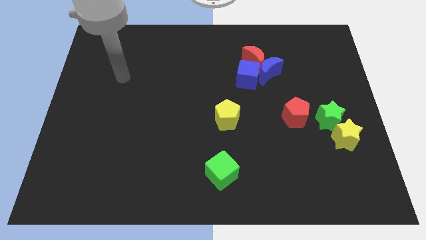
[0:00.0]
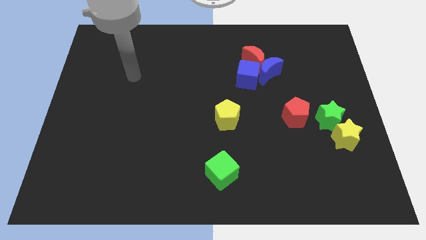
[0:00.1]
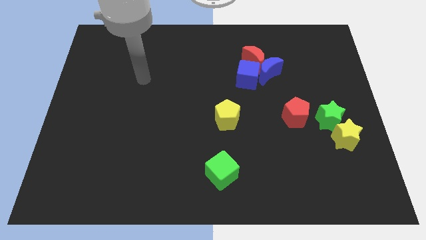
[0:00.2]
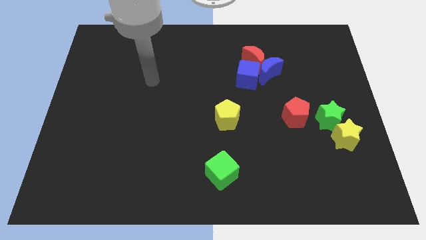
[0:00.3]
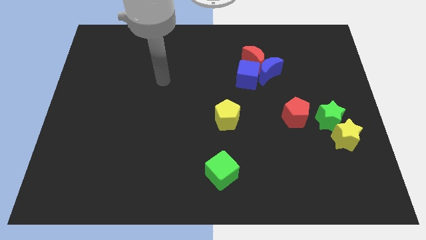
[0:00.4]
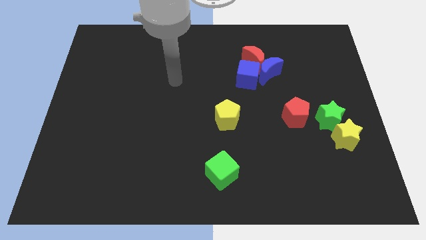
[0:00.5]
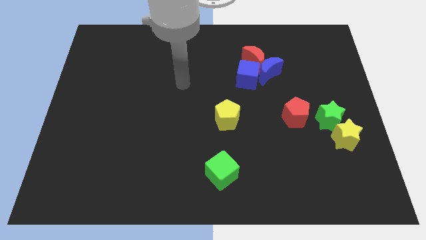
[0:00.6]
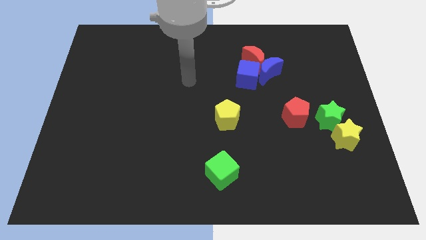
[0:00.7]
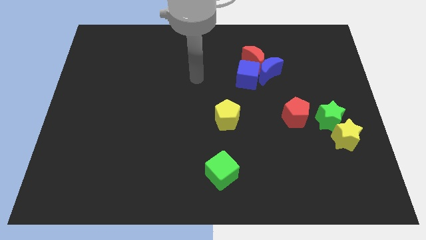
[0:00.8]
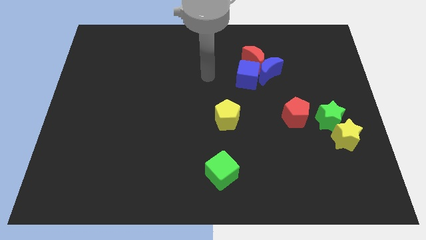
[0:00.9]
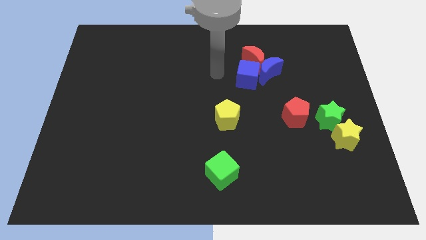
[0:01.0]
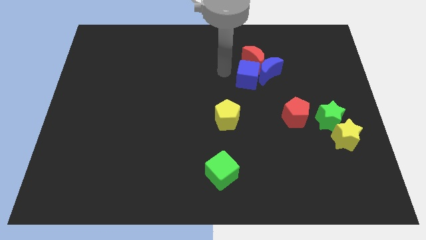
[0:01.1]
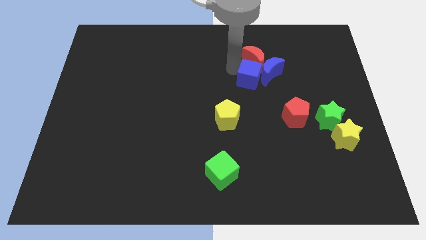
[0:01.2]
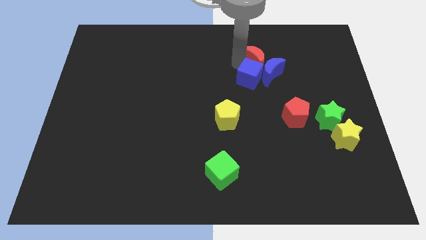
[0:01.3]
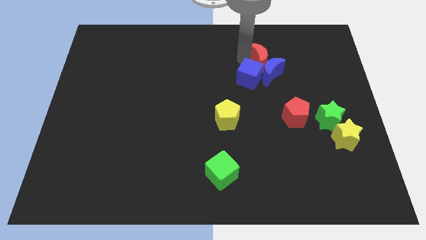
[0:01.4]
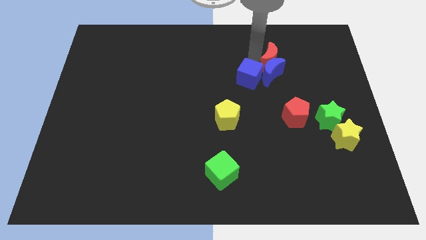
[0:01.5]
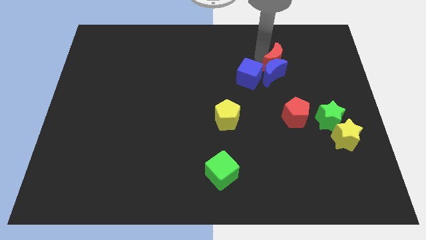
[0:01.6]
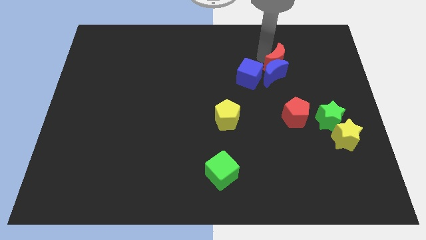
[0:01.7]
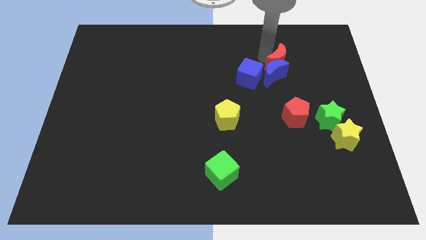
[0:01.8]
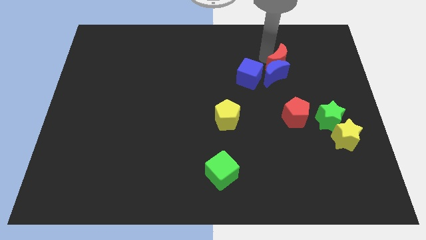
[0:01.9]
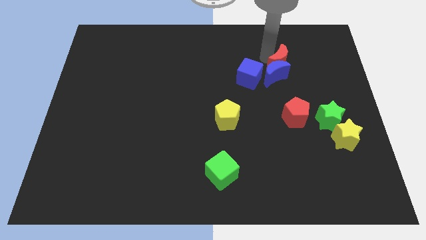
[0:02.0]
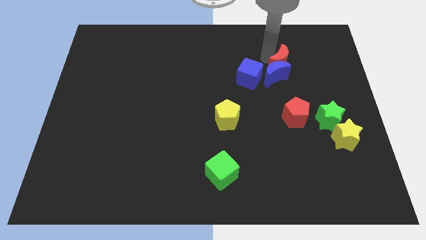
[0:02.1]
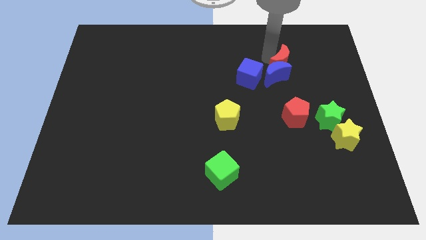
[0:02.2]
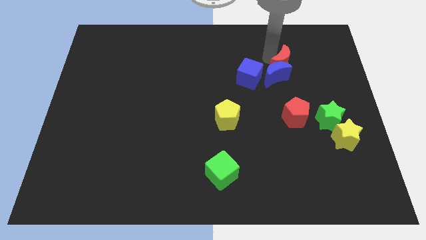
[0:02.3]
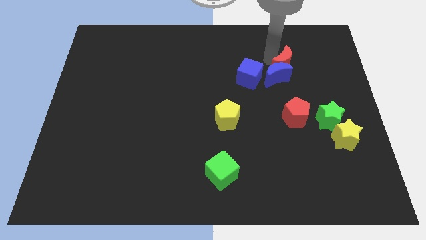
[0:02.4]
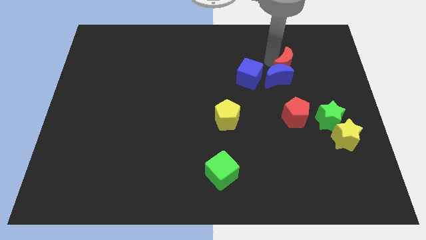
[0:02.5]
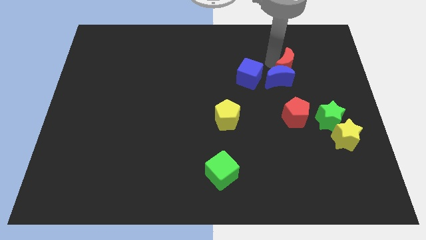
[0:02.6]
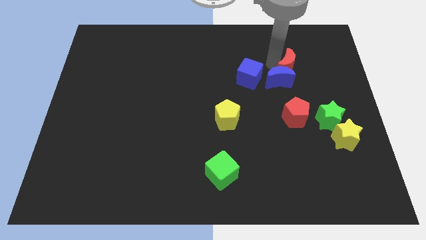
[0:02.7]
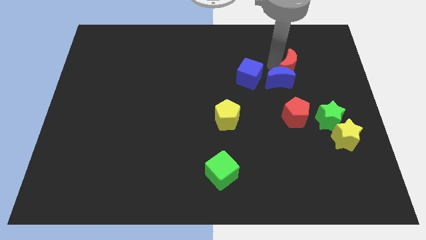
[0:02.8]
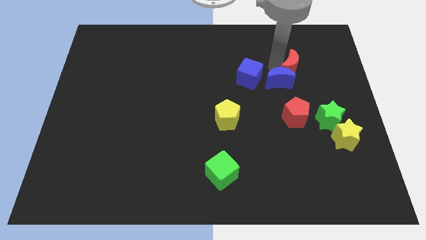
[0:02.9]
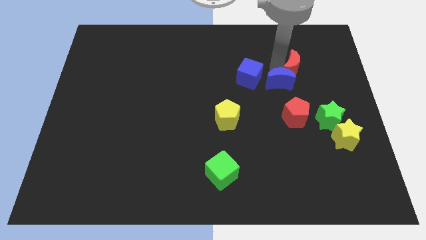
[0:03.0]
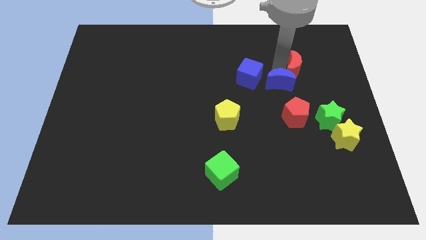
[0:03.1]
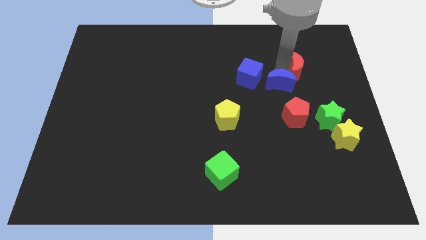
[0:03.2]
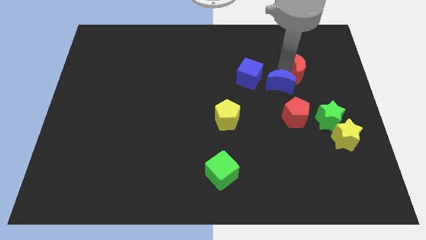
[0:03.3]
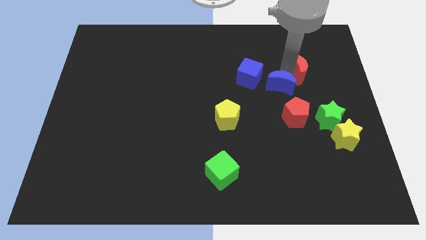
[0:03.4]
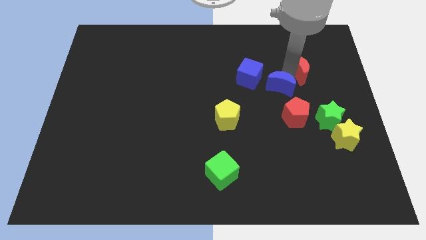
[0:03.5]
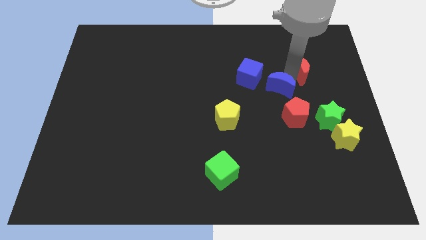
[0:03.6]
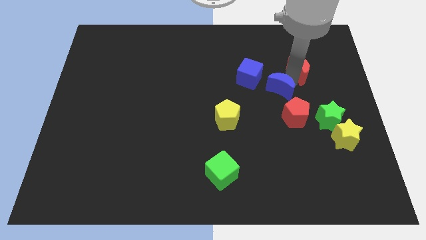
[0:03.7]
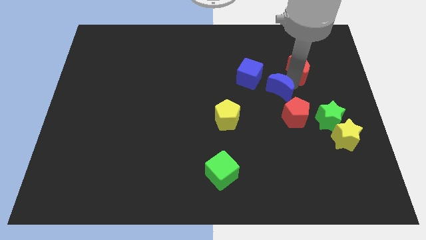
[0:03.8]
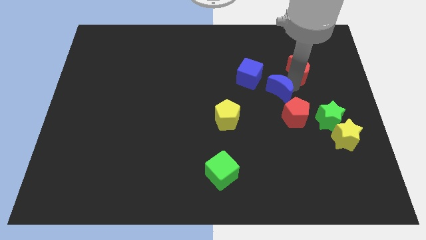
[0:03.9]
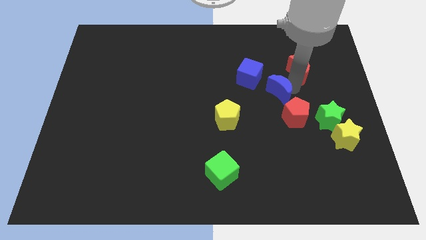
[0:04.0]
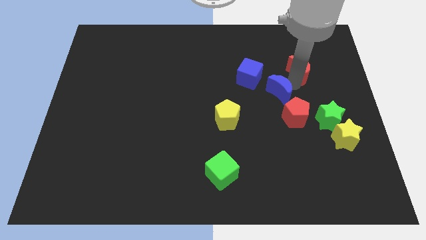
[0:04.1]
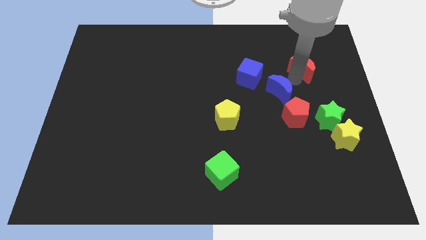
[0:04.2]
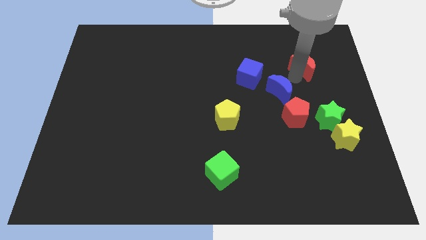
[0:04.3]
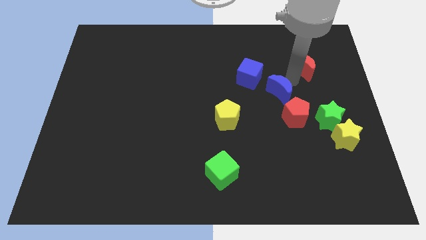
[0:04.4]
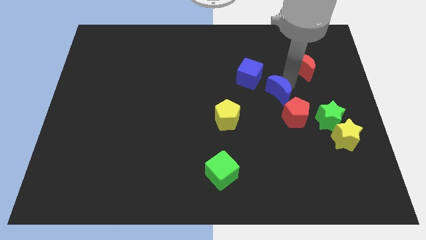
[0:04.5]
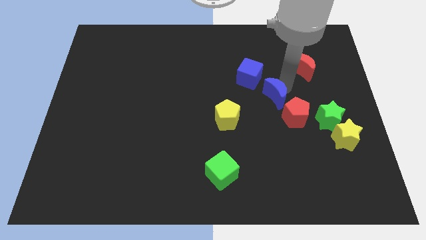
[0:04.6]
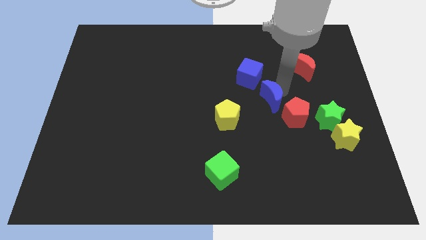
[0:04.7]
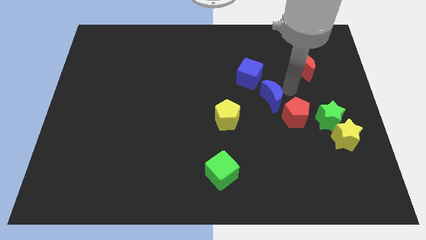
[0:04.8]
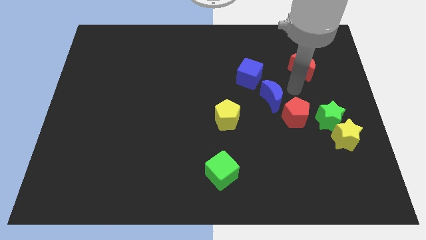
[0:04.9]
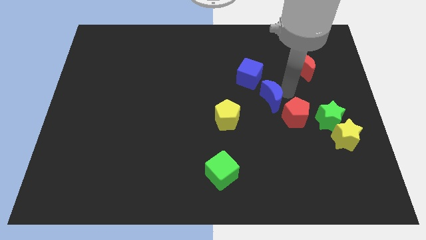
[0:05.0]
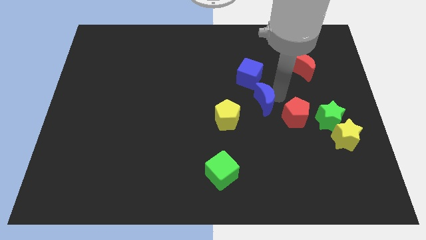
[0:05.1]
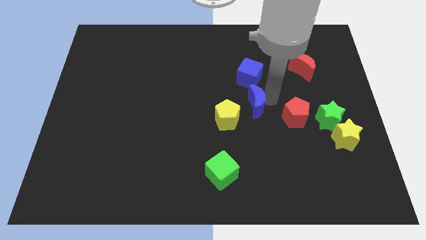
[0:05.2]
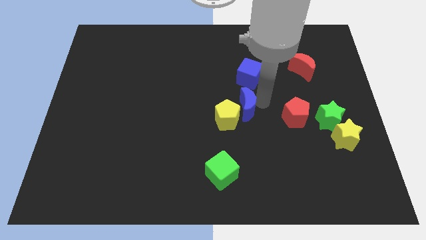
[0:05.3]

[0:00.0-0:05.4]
put the blue moon next to the yellow pentagon

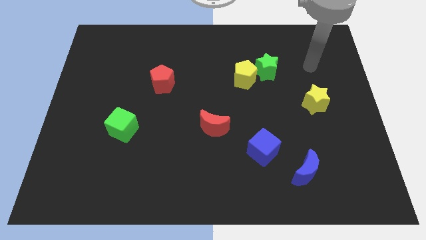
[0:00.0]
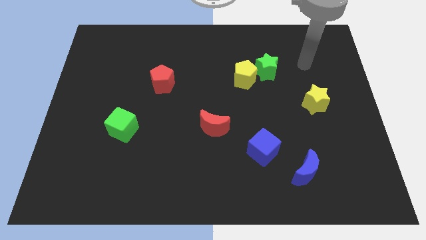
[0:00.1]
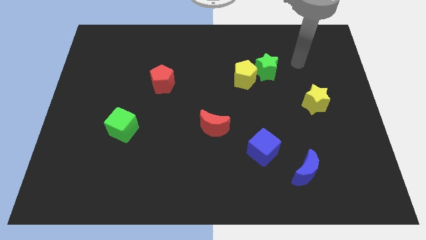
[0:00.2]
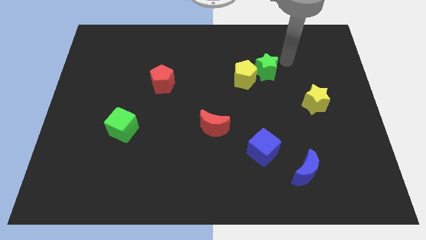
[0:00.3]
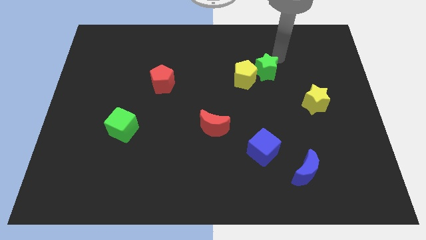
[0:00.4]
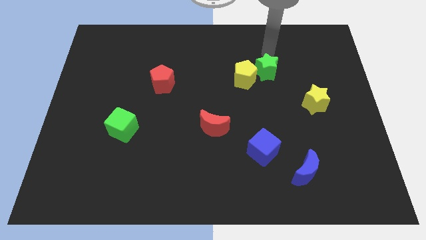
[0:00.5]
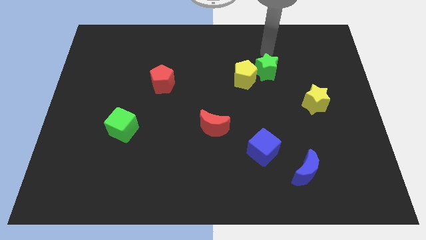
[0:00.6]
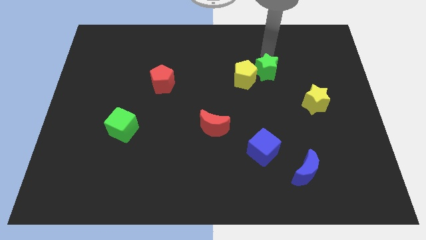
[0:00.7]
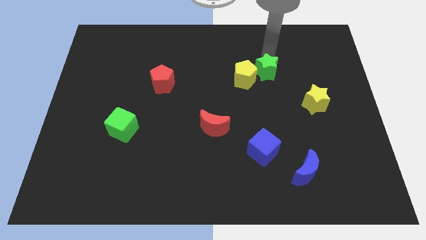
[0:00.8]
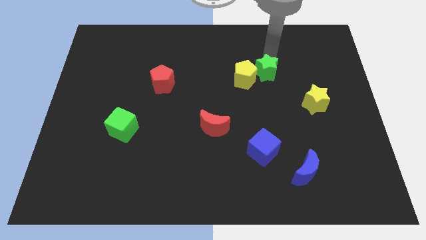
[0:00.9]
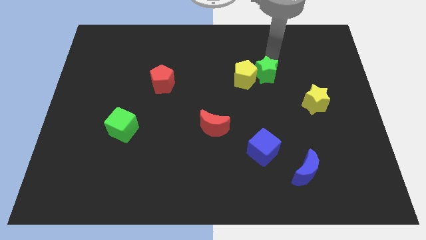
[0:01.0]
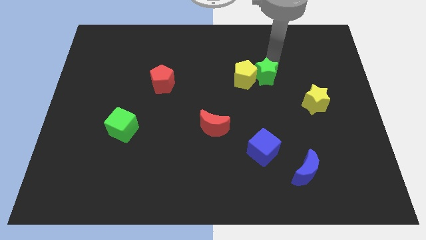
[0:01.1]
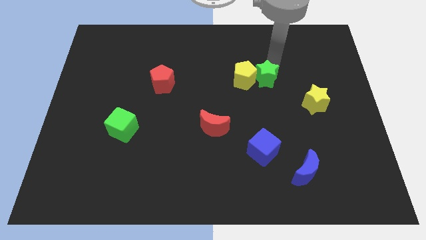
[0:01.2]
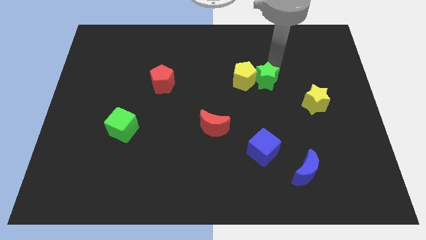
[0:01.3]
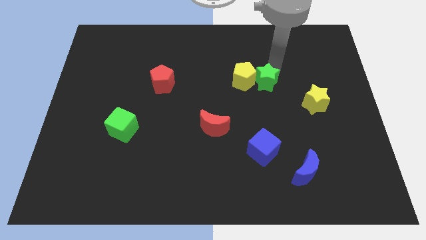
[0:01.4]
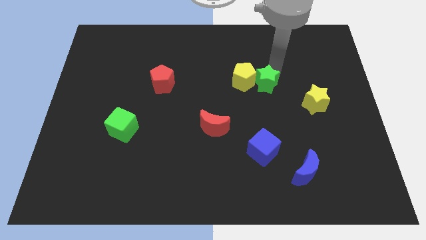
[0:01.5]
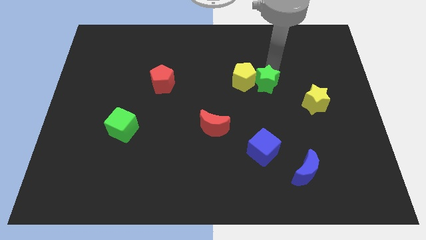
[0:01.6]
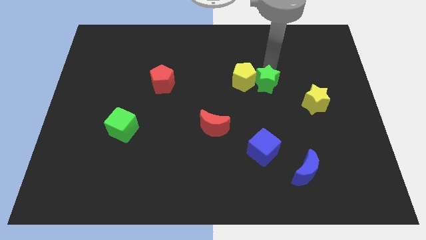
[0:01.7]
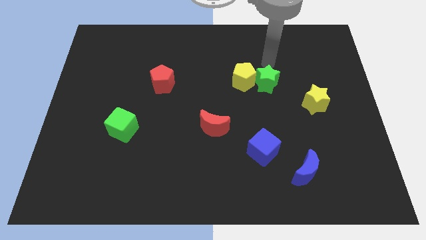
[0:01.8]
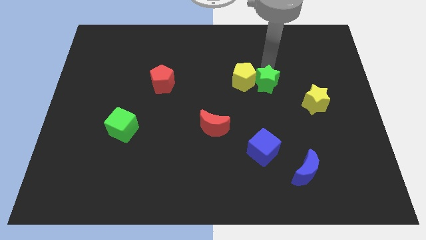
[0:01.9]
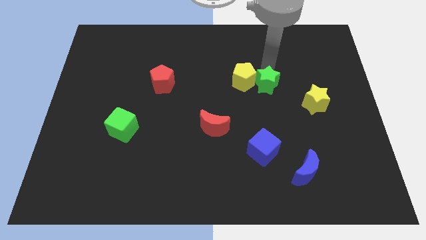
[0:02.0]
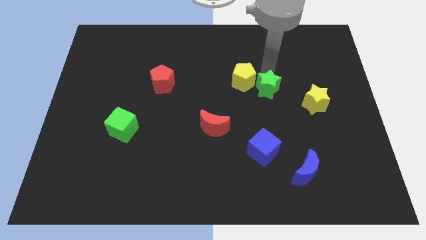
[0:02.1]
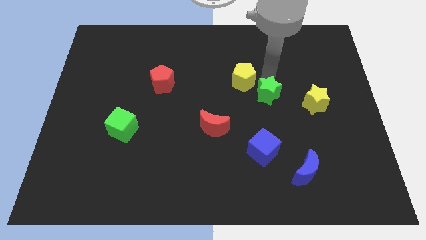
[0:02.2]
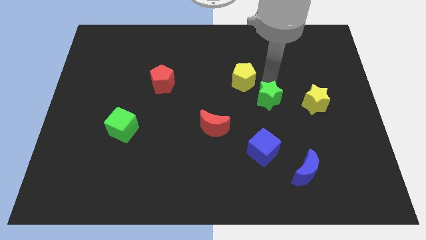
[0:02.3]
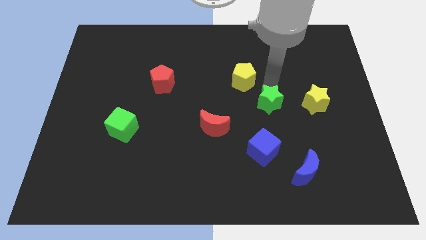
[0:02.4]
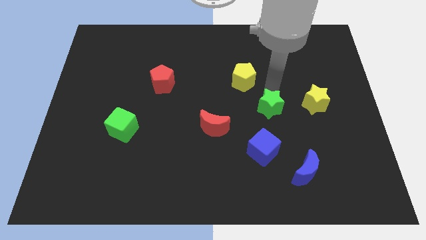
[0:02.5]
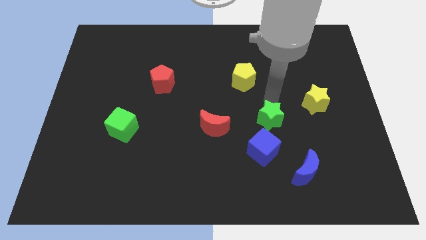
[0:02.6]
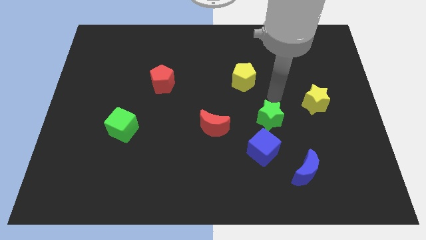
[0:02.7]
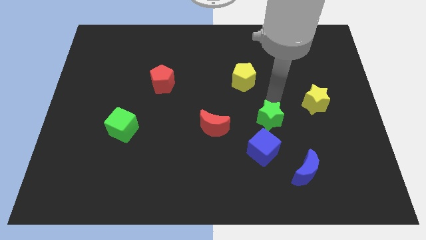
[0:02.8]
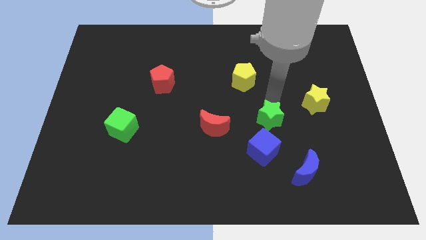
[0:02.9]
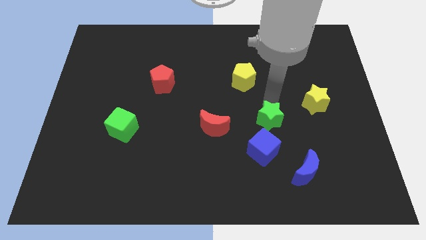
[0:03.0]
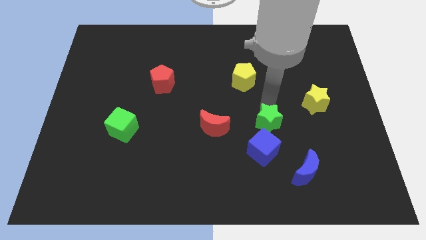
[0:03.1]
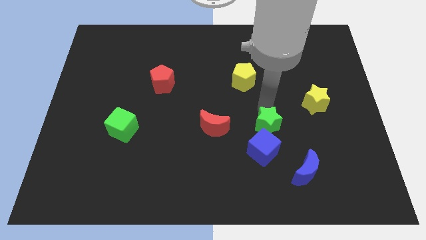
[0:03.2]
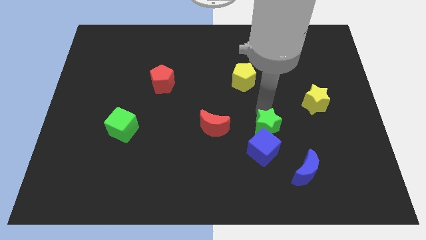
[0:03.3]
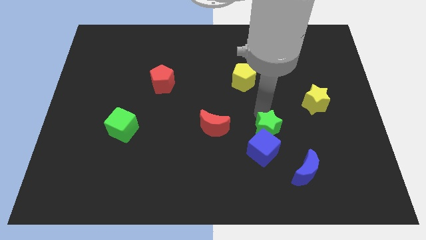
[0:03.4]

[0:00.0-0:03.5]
push the green star towards the blue cube
